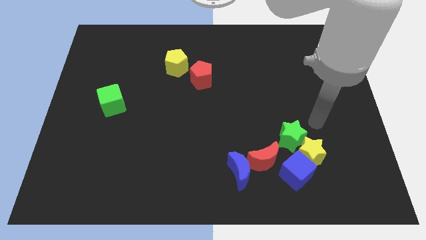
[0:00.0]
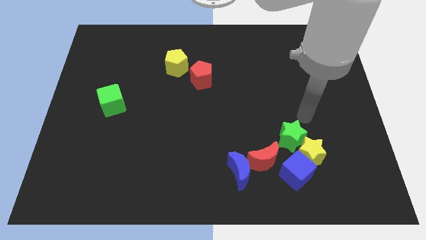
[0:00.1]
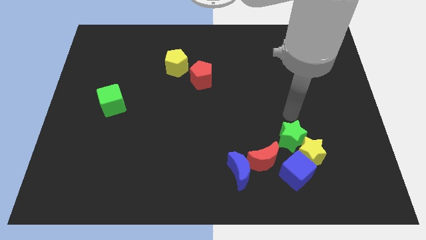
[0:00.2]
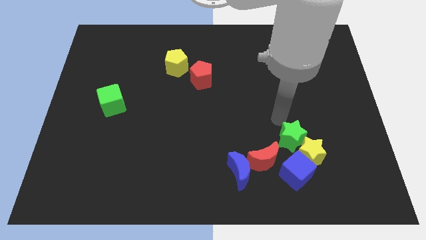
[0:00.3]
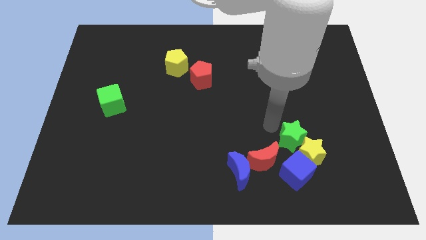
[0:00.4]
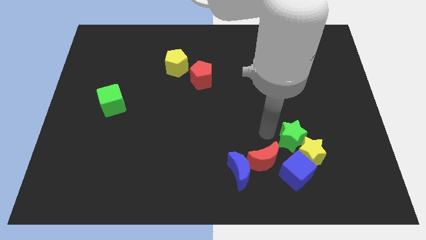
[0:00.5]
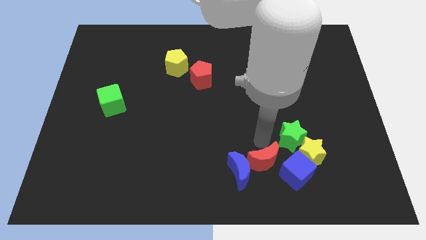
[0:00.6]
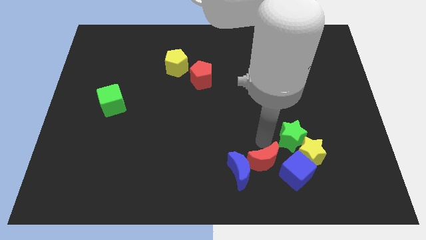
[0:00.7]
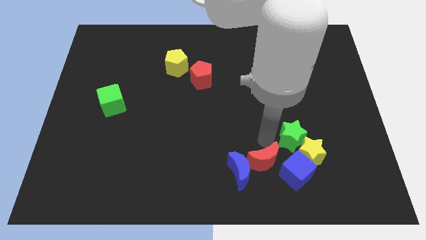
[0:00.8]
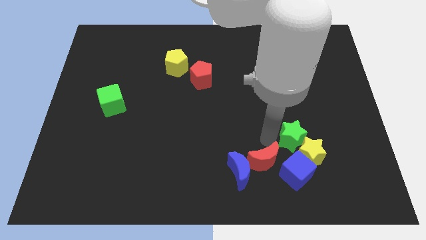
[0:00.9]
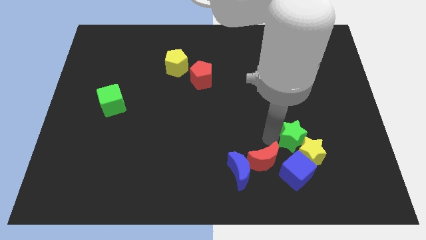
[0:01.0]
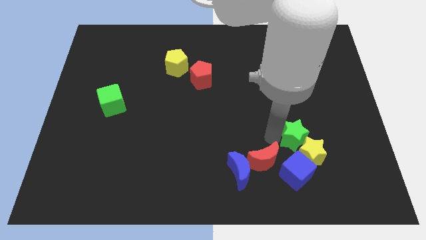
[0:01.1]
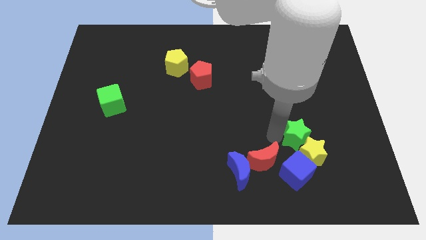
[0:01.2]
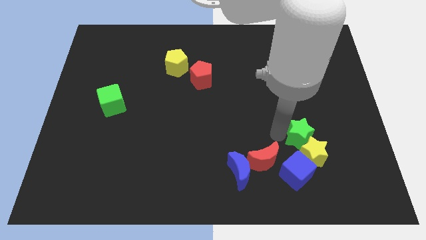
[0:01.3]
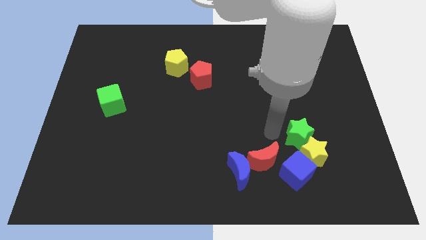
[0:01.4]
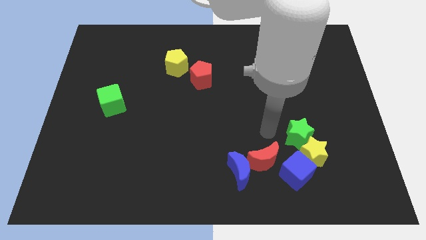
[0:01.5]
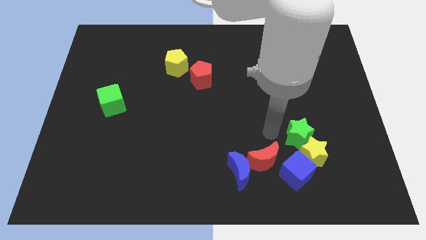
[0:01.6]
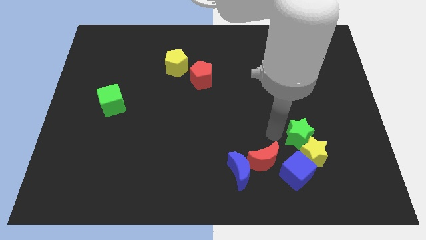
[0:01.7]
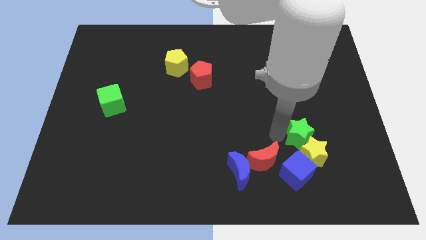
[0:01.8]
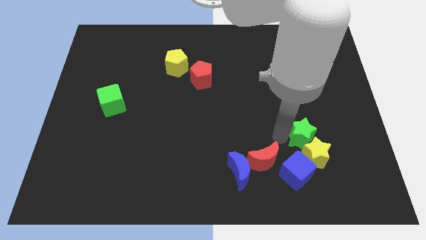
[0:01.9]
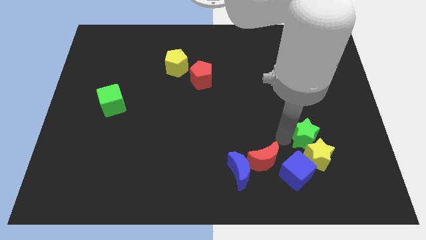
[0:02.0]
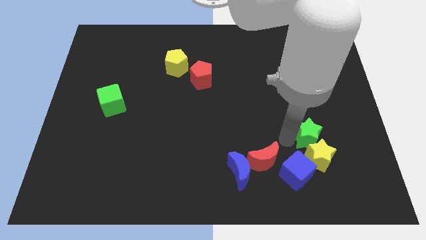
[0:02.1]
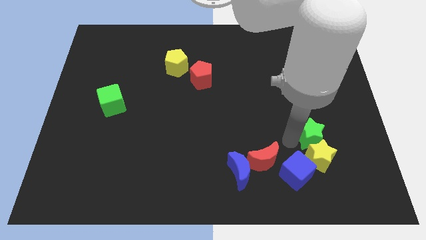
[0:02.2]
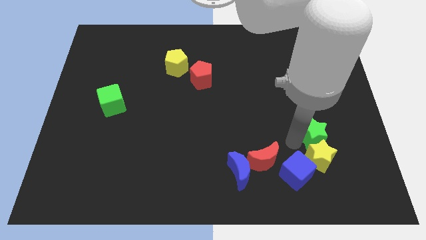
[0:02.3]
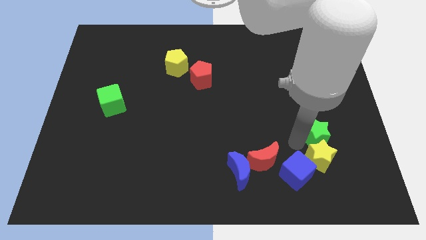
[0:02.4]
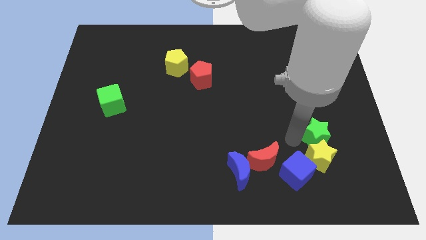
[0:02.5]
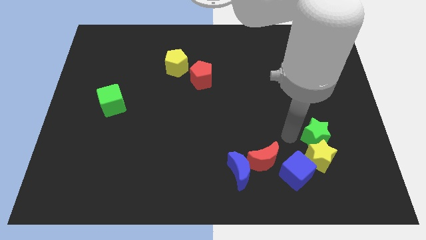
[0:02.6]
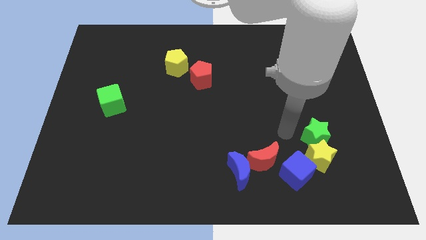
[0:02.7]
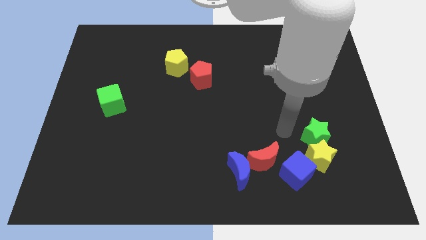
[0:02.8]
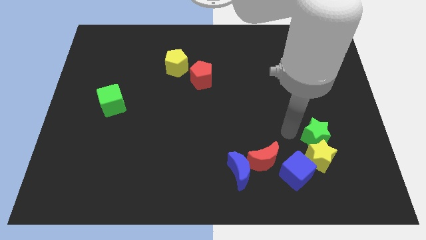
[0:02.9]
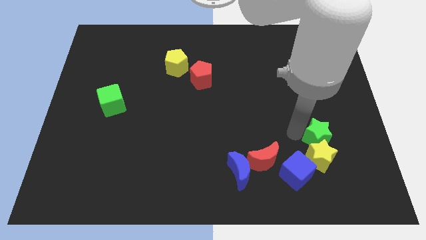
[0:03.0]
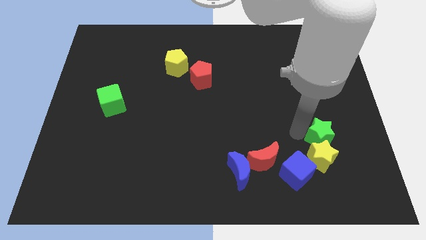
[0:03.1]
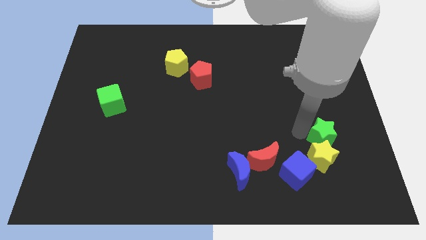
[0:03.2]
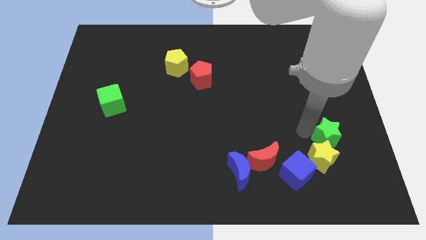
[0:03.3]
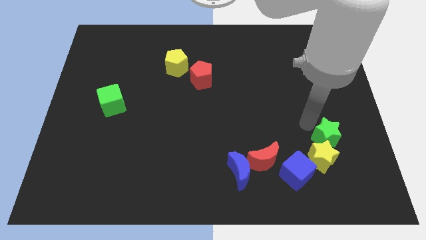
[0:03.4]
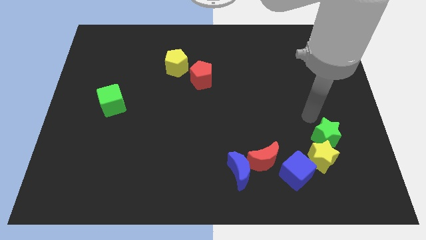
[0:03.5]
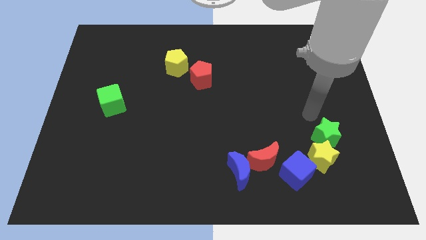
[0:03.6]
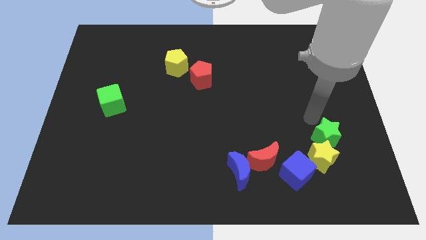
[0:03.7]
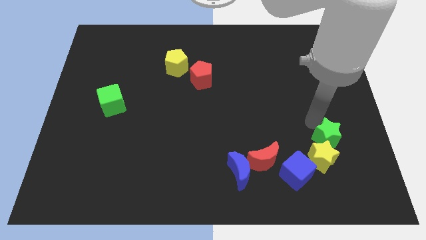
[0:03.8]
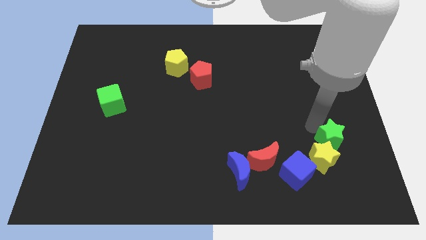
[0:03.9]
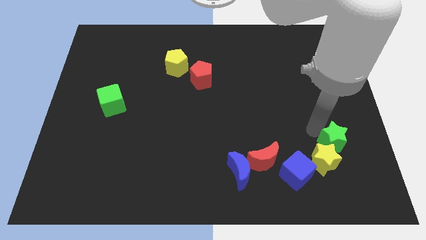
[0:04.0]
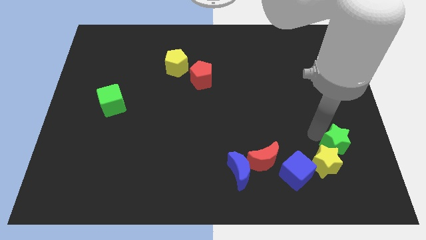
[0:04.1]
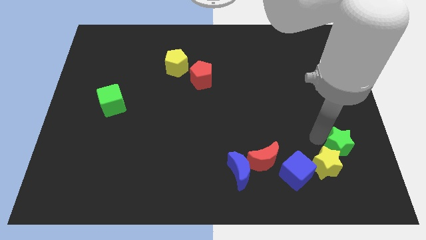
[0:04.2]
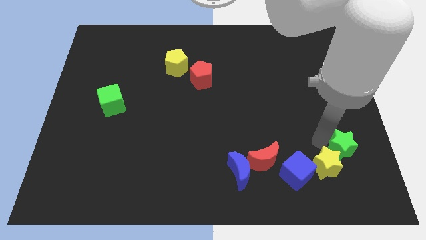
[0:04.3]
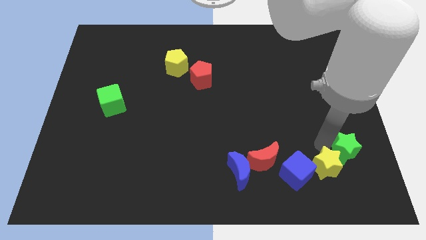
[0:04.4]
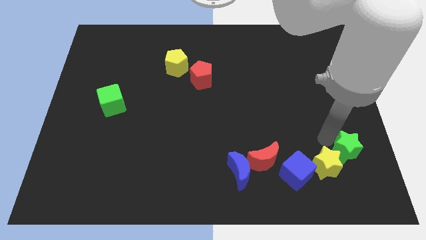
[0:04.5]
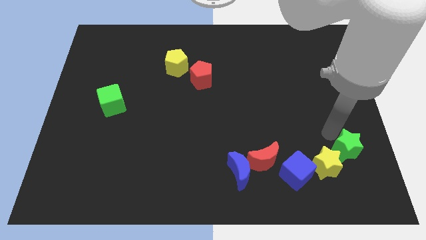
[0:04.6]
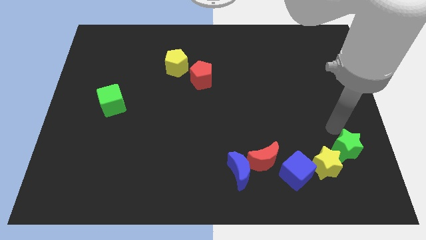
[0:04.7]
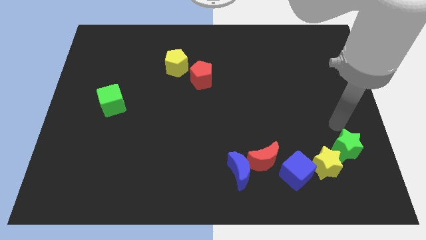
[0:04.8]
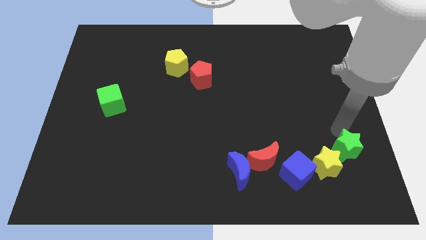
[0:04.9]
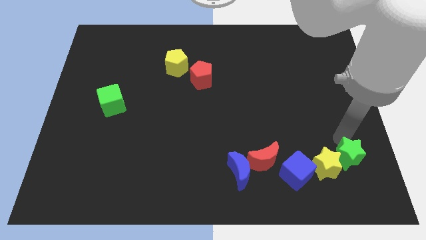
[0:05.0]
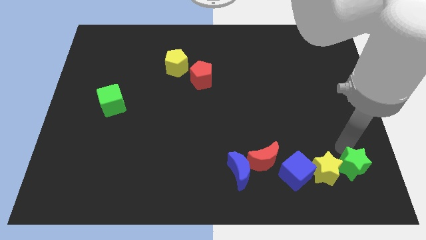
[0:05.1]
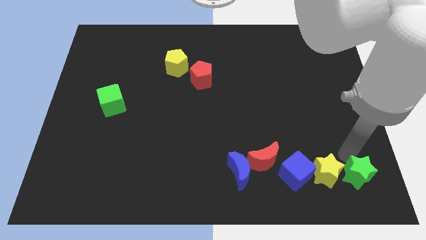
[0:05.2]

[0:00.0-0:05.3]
push the green star to the bottom right side of the yellow star

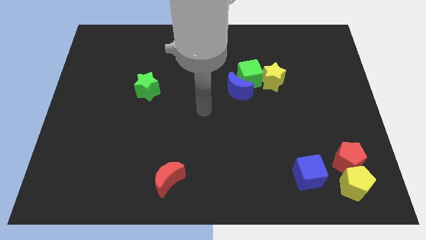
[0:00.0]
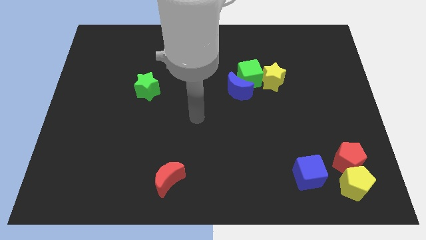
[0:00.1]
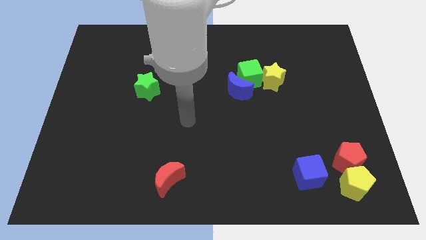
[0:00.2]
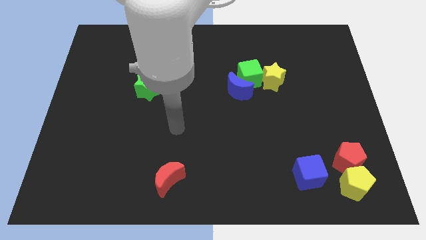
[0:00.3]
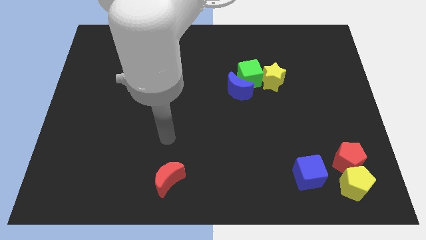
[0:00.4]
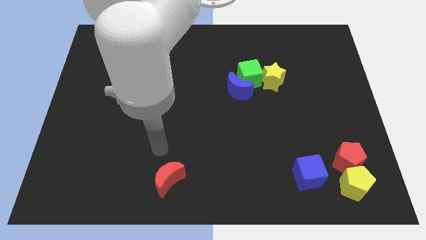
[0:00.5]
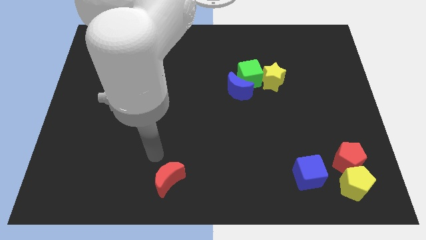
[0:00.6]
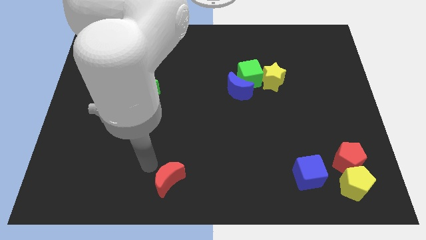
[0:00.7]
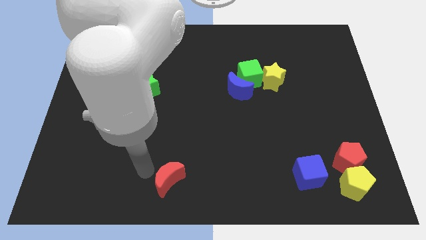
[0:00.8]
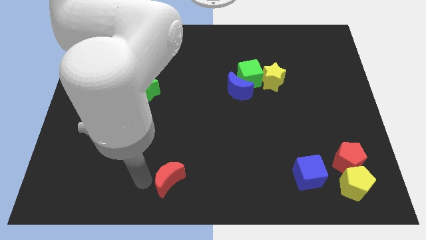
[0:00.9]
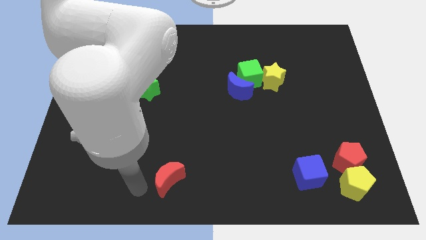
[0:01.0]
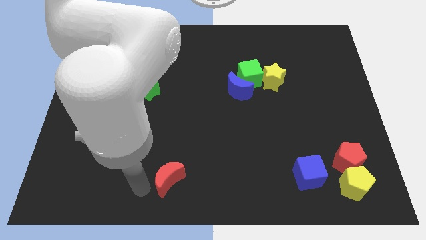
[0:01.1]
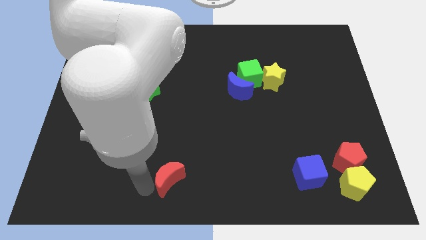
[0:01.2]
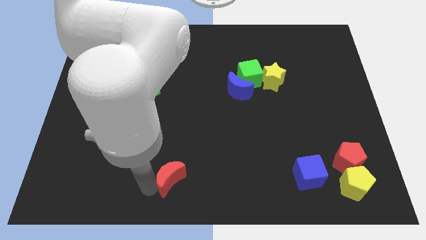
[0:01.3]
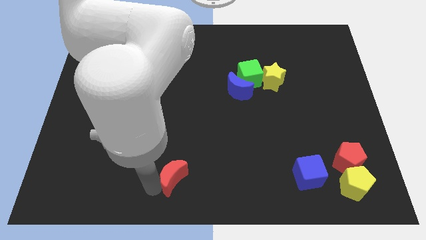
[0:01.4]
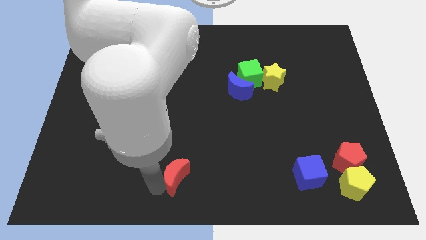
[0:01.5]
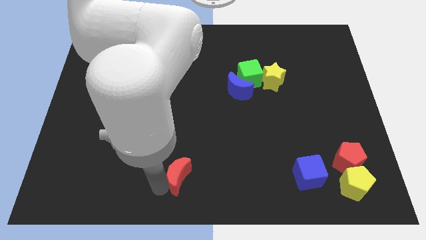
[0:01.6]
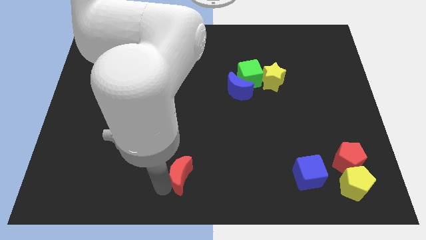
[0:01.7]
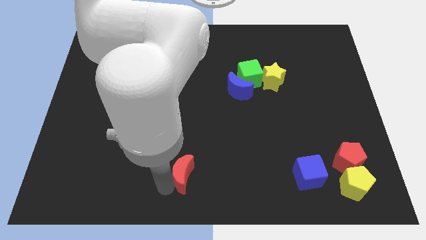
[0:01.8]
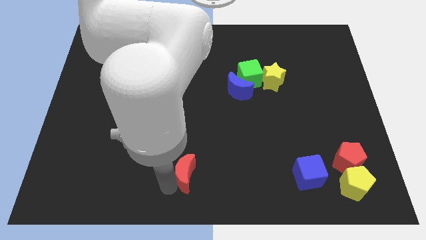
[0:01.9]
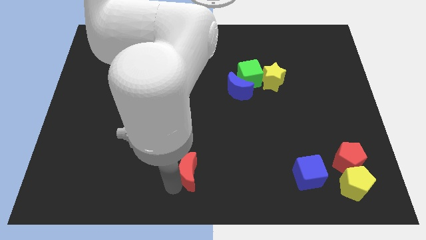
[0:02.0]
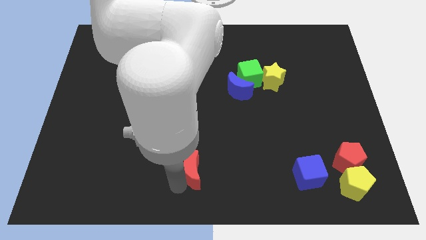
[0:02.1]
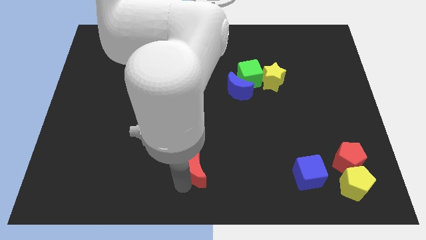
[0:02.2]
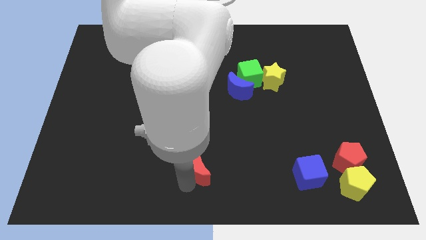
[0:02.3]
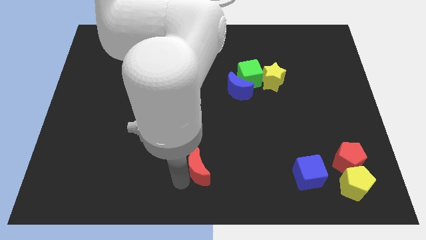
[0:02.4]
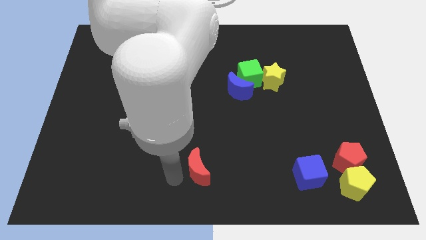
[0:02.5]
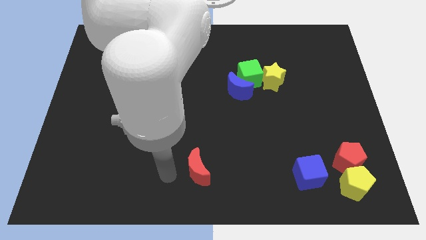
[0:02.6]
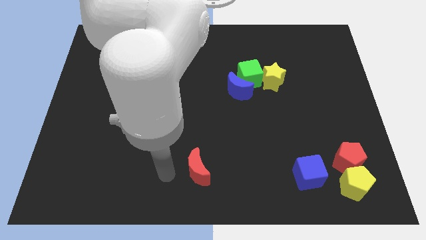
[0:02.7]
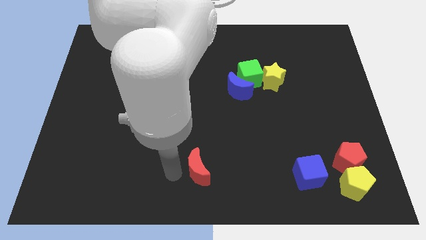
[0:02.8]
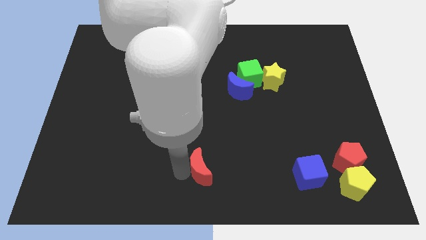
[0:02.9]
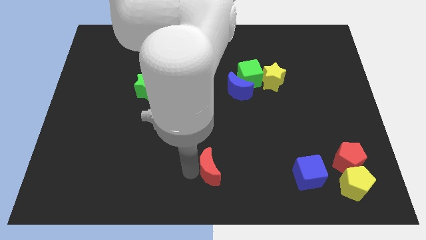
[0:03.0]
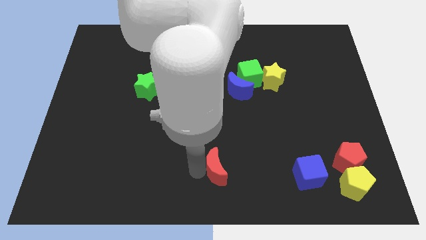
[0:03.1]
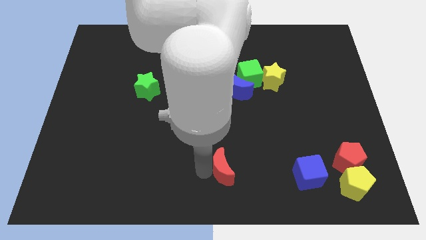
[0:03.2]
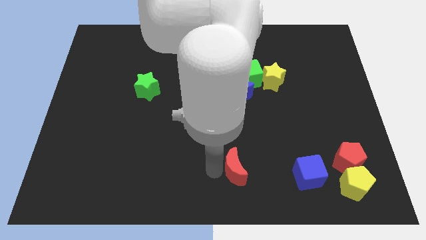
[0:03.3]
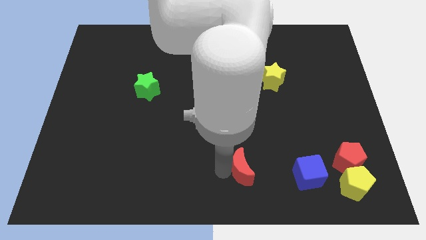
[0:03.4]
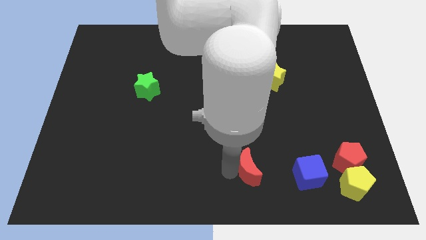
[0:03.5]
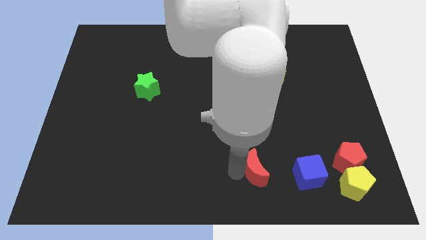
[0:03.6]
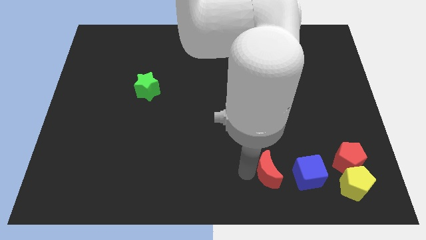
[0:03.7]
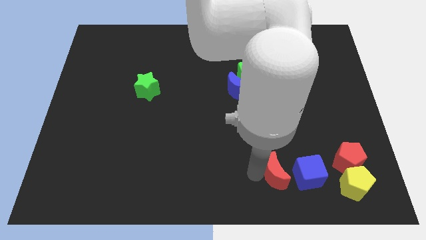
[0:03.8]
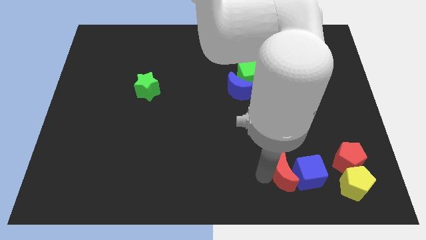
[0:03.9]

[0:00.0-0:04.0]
push the red moon to the left of the red pentagon
